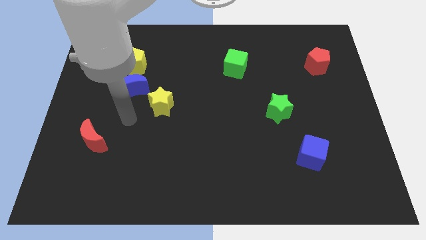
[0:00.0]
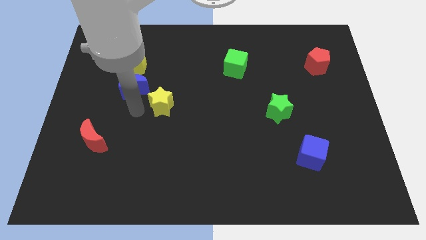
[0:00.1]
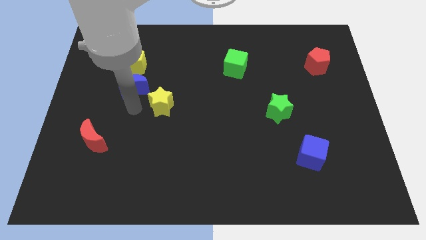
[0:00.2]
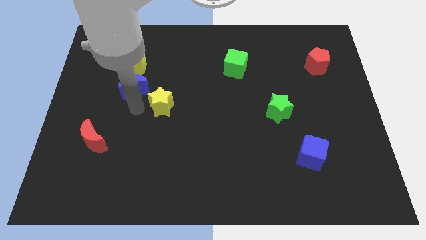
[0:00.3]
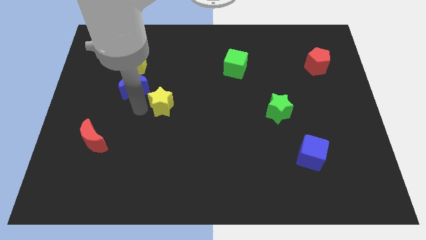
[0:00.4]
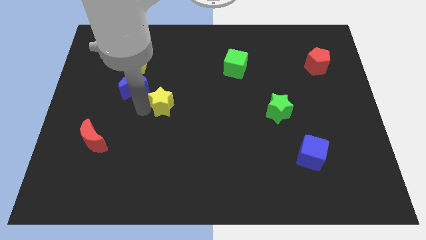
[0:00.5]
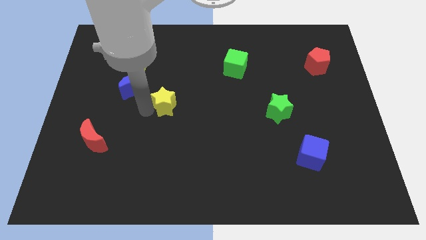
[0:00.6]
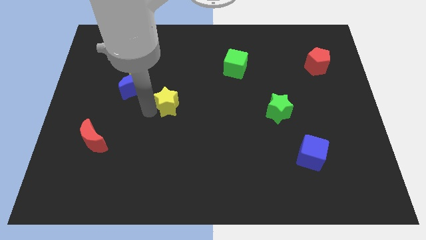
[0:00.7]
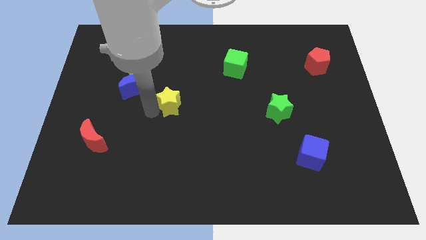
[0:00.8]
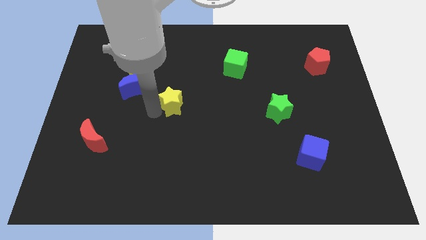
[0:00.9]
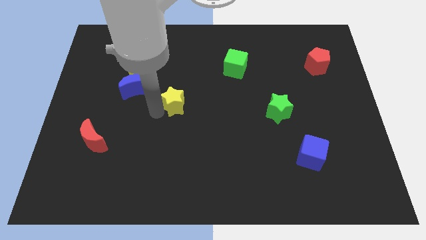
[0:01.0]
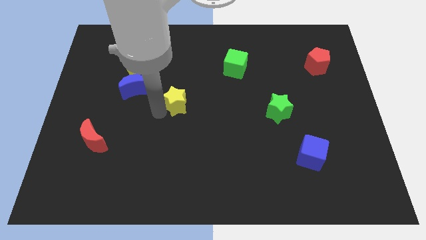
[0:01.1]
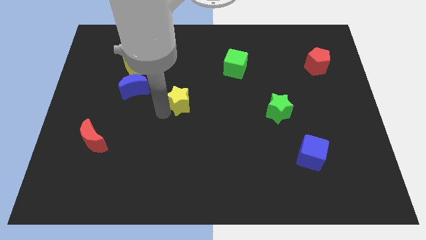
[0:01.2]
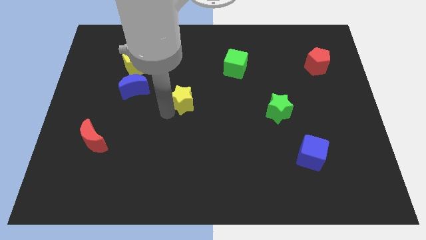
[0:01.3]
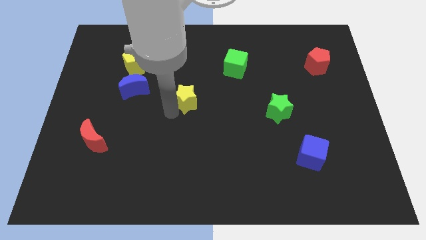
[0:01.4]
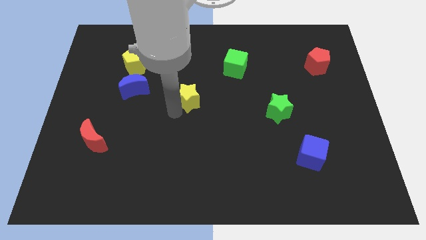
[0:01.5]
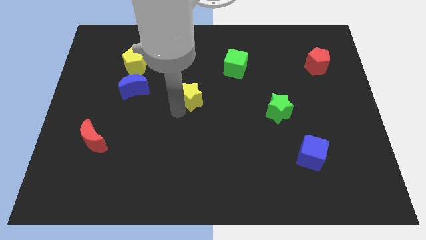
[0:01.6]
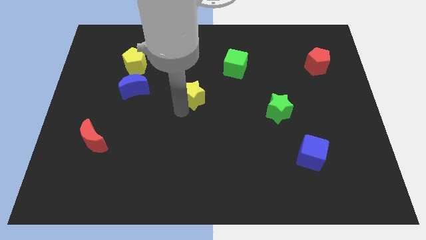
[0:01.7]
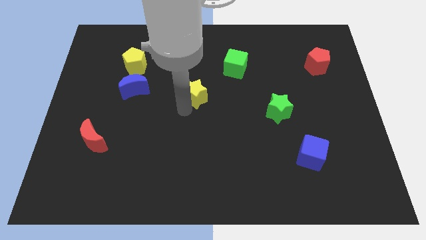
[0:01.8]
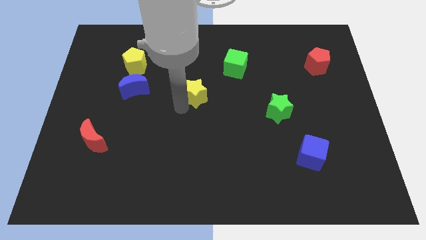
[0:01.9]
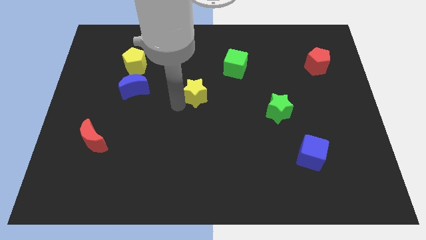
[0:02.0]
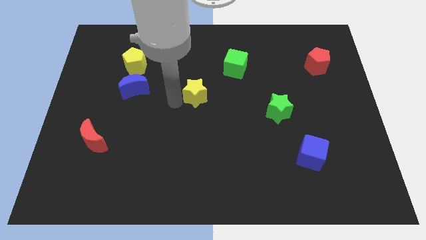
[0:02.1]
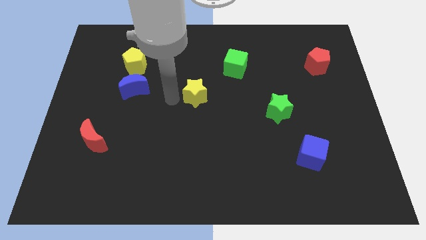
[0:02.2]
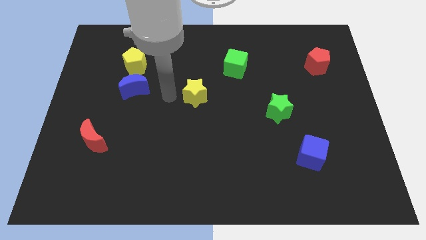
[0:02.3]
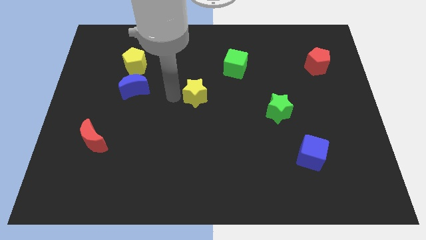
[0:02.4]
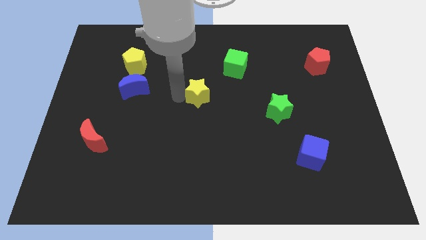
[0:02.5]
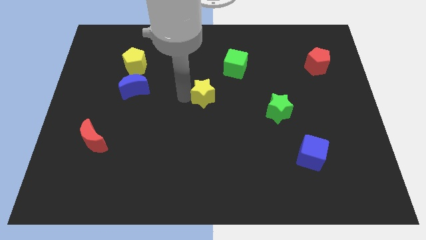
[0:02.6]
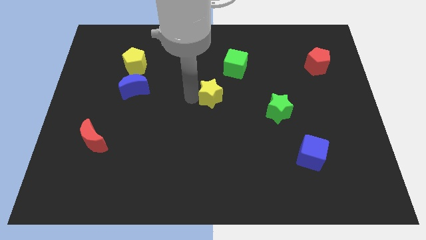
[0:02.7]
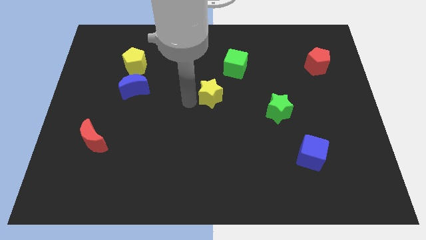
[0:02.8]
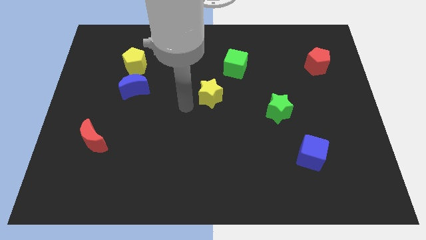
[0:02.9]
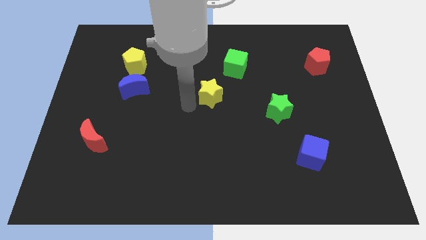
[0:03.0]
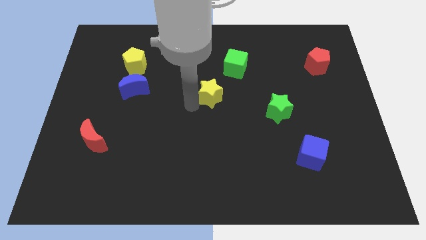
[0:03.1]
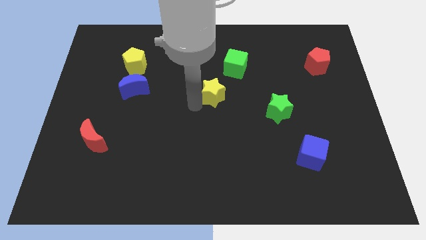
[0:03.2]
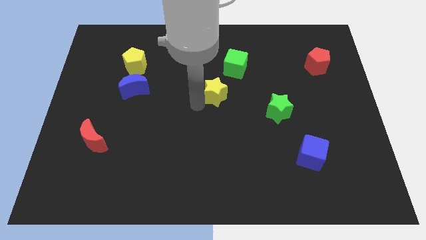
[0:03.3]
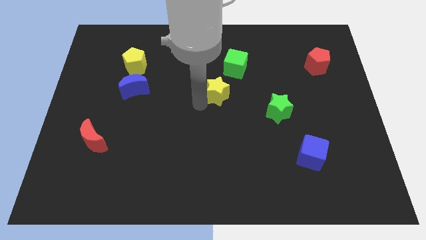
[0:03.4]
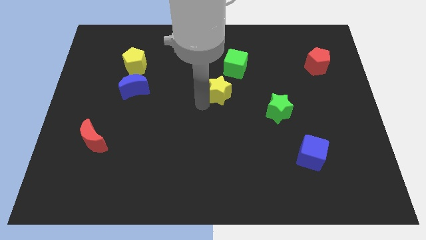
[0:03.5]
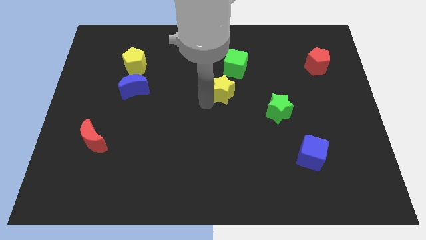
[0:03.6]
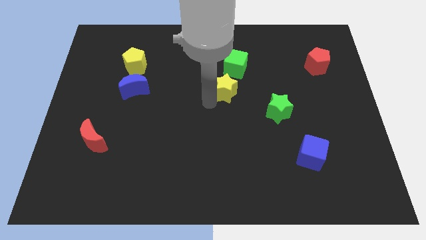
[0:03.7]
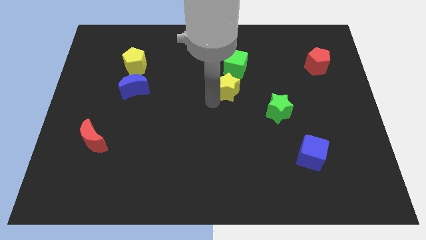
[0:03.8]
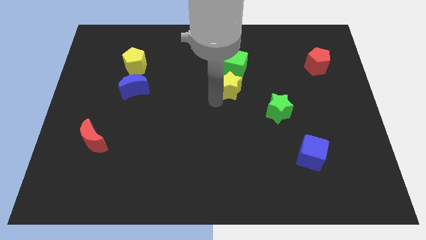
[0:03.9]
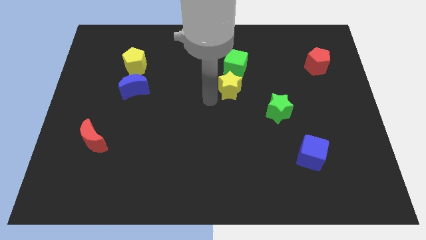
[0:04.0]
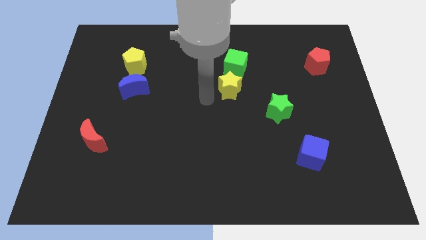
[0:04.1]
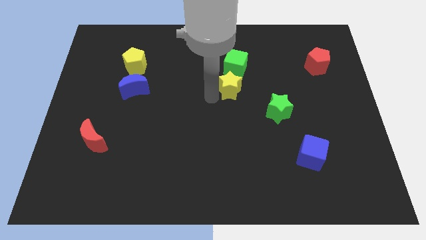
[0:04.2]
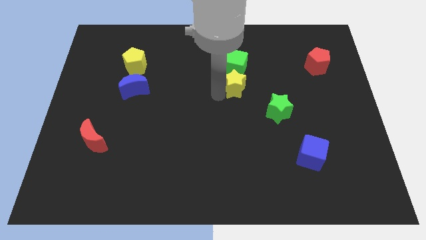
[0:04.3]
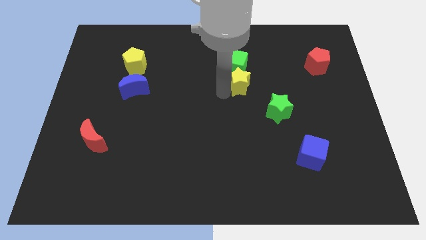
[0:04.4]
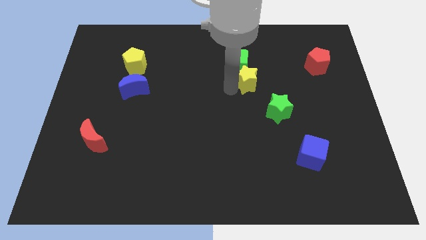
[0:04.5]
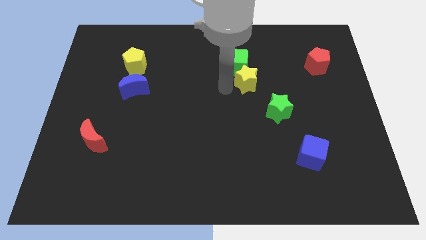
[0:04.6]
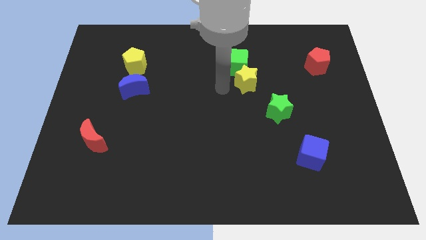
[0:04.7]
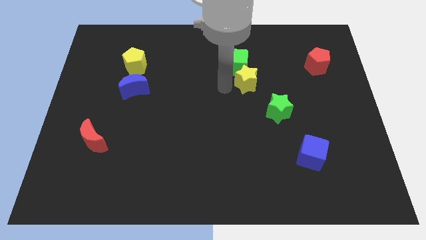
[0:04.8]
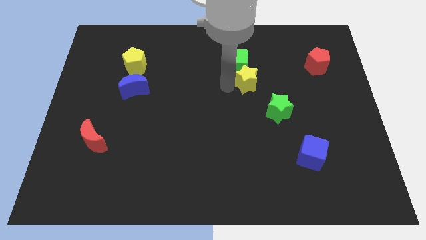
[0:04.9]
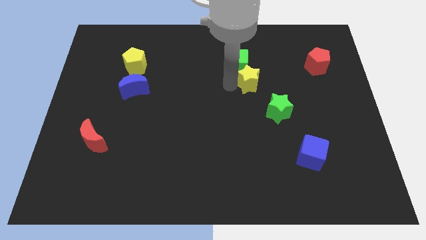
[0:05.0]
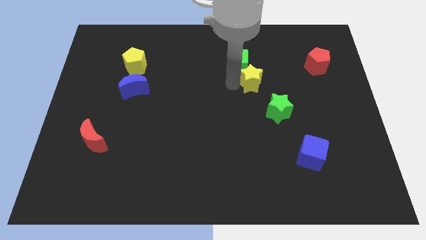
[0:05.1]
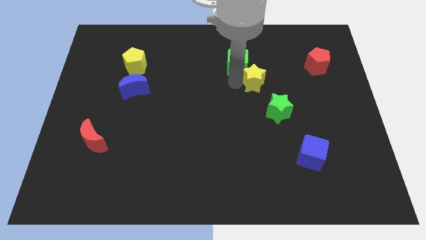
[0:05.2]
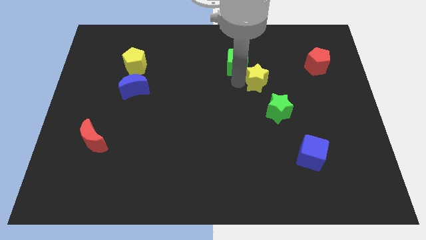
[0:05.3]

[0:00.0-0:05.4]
put the yellow star to the top of the green star

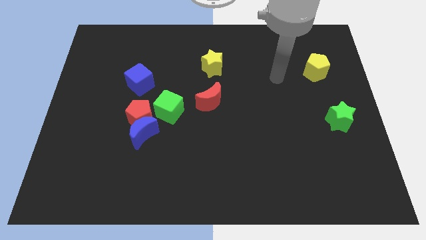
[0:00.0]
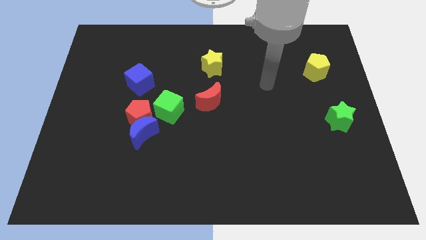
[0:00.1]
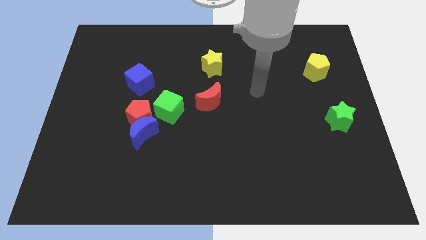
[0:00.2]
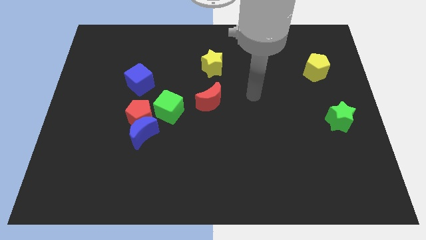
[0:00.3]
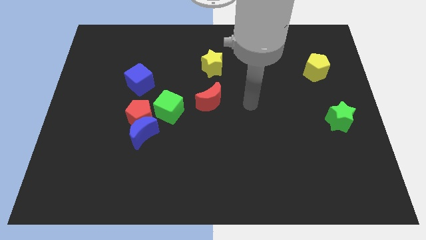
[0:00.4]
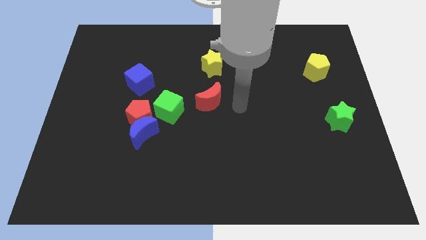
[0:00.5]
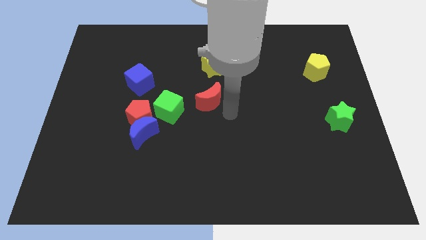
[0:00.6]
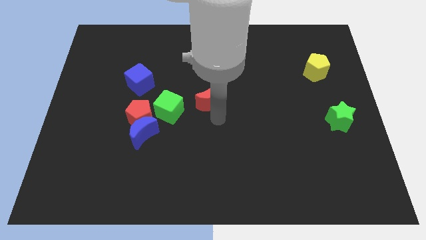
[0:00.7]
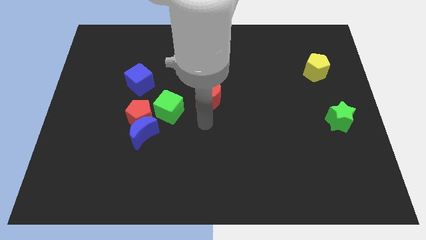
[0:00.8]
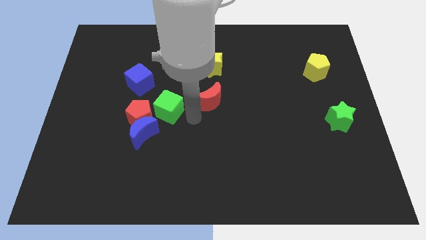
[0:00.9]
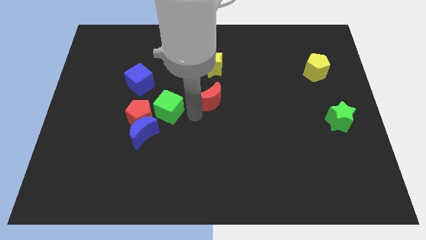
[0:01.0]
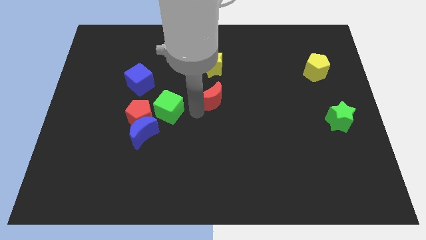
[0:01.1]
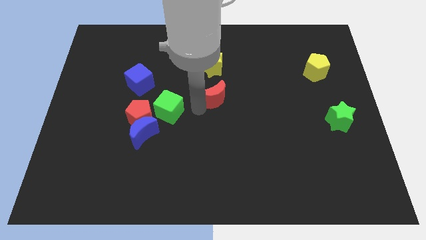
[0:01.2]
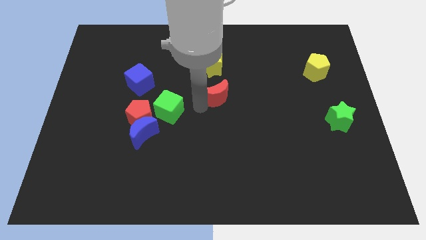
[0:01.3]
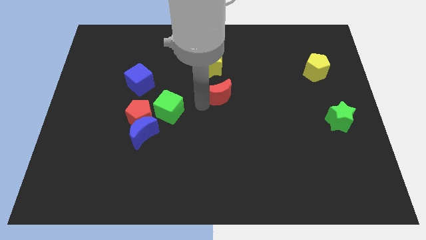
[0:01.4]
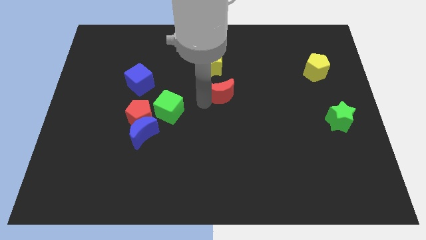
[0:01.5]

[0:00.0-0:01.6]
move the red moon to the bottom right of the yellow star
